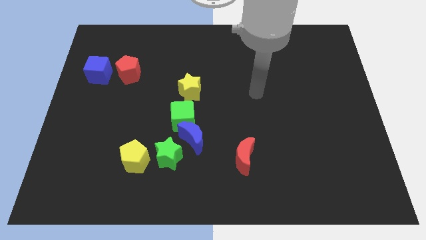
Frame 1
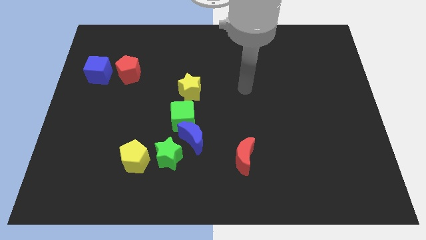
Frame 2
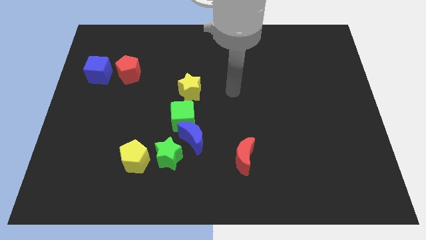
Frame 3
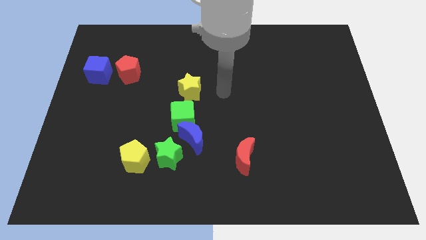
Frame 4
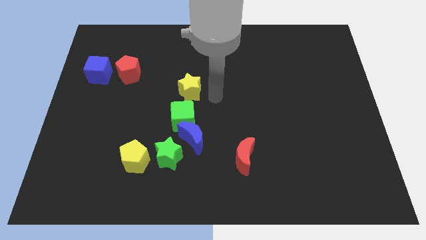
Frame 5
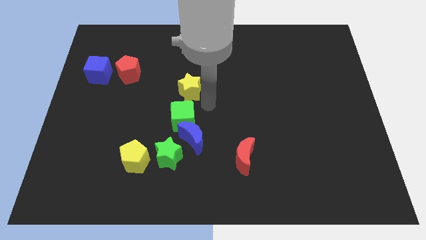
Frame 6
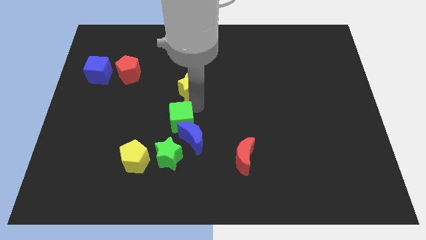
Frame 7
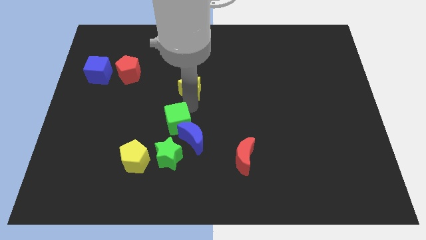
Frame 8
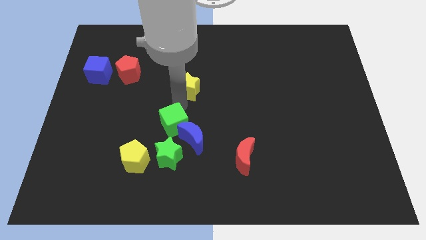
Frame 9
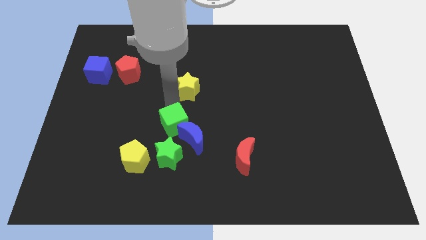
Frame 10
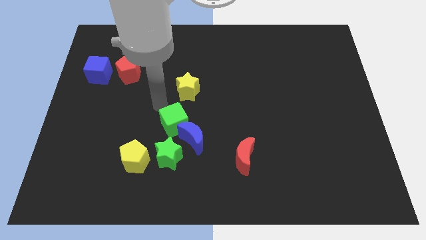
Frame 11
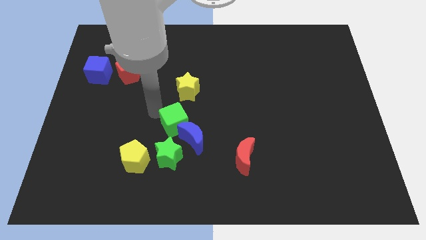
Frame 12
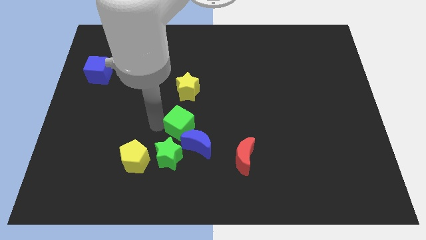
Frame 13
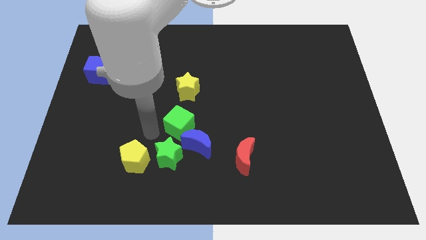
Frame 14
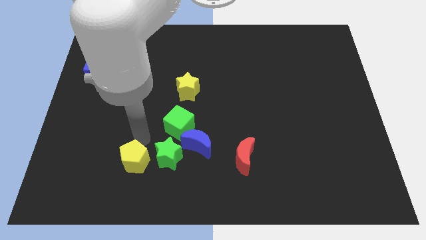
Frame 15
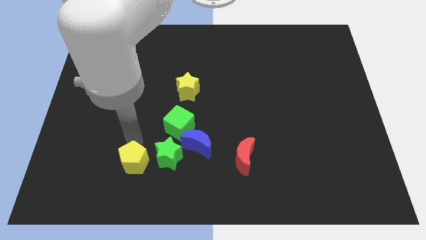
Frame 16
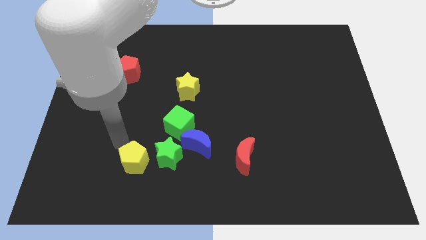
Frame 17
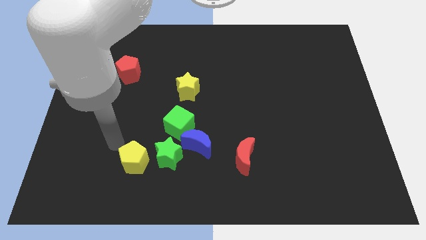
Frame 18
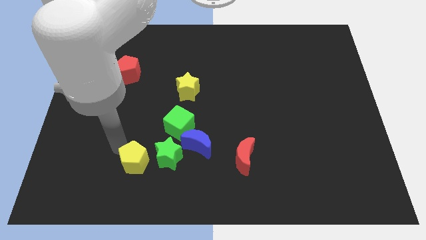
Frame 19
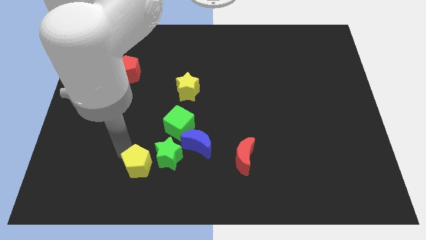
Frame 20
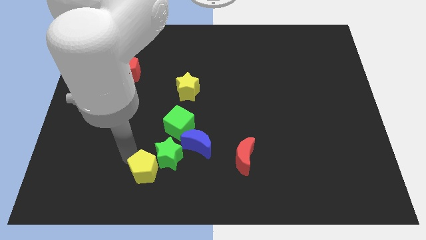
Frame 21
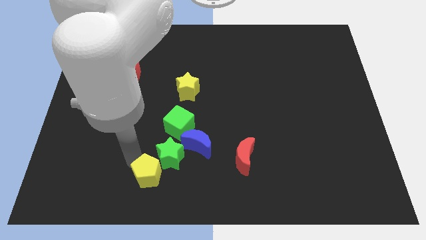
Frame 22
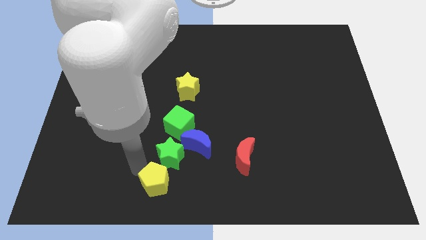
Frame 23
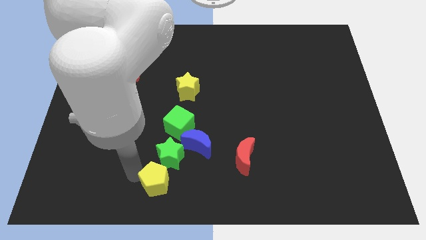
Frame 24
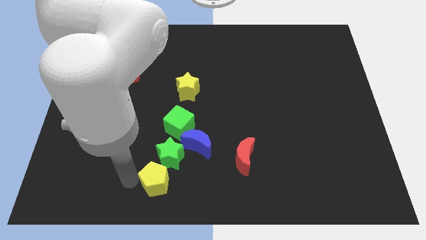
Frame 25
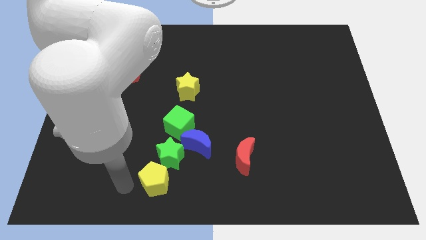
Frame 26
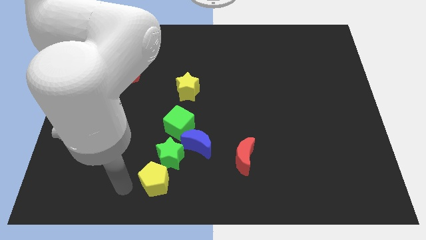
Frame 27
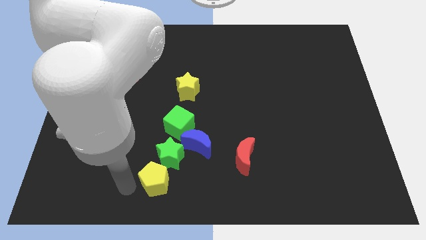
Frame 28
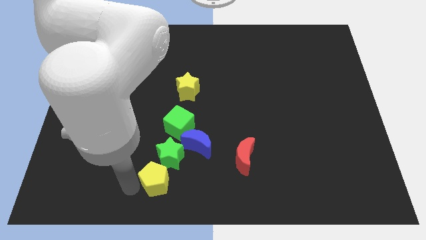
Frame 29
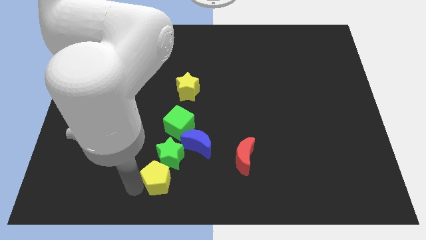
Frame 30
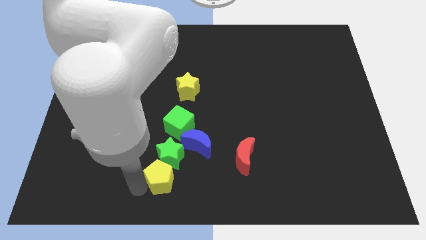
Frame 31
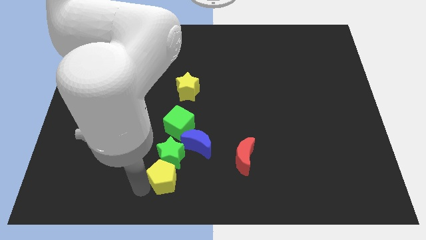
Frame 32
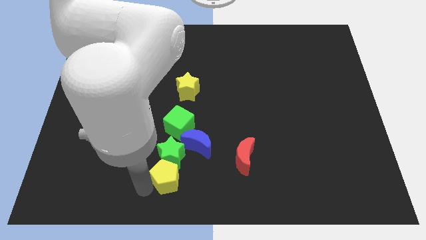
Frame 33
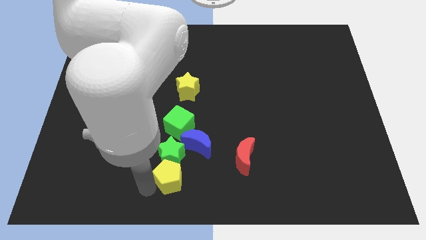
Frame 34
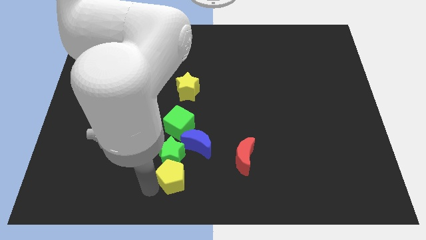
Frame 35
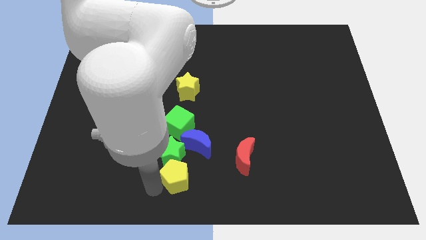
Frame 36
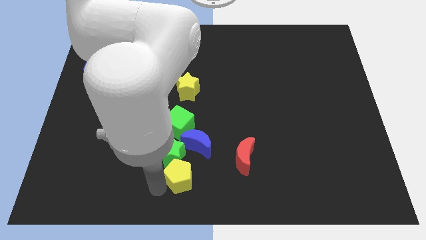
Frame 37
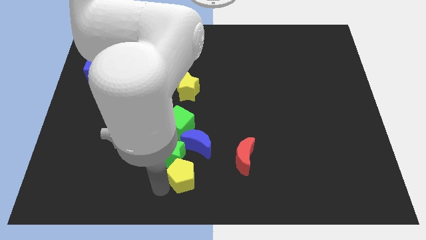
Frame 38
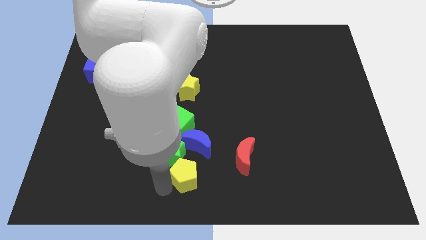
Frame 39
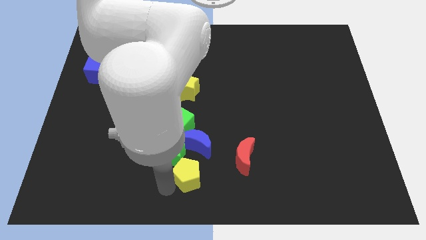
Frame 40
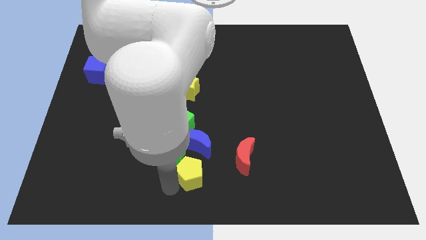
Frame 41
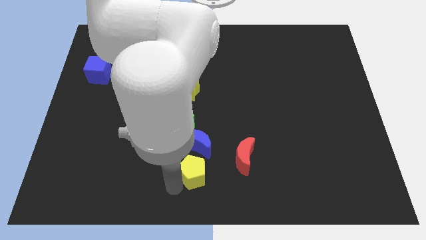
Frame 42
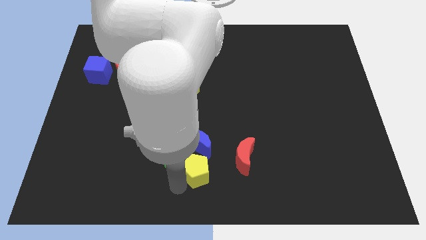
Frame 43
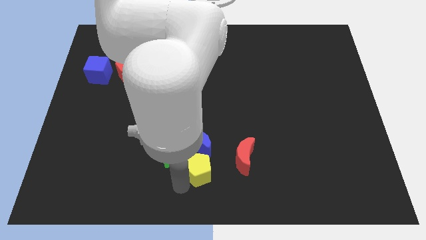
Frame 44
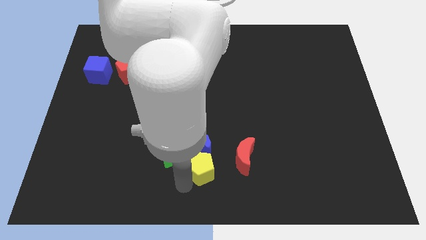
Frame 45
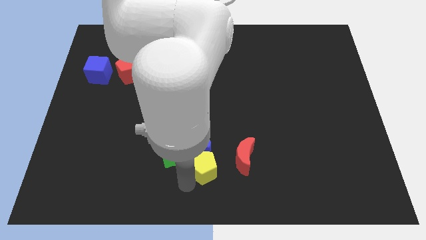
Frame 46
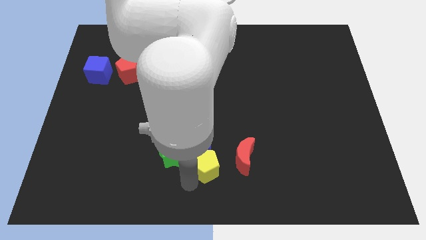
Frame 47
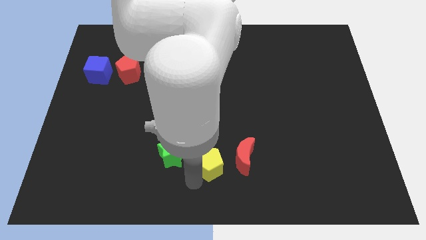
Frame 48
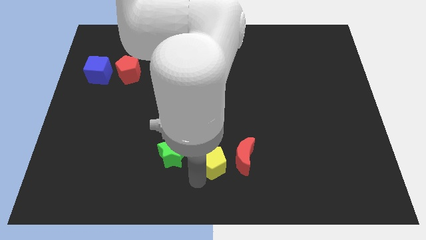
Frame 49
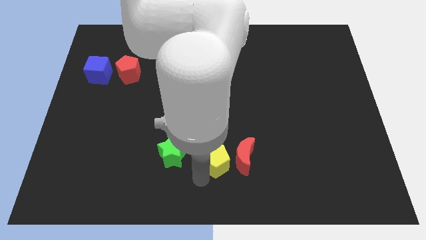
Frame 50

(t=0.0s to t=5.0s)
slide the yellow pentagon to the red moon

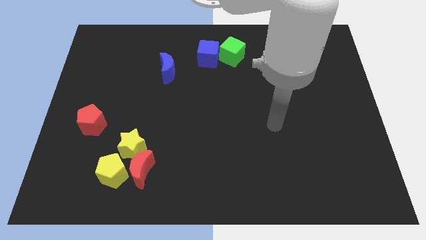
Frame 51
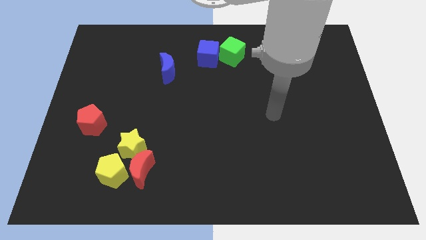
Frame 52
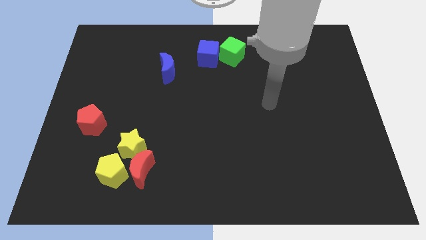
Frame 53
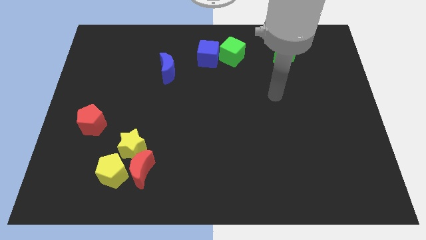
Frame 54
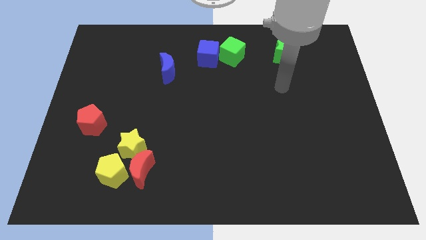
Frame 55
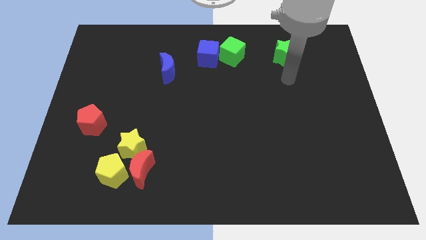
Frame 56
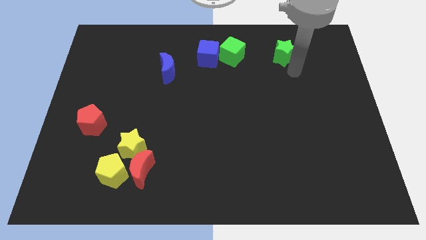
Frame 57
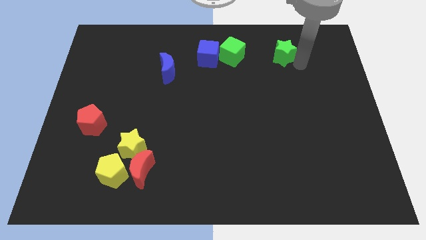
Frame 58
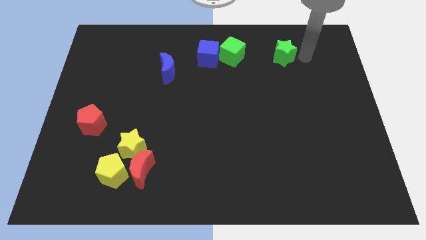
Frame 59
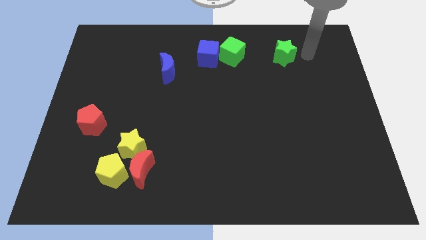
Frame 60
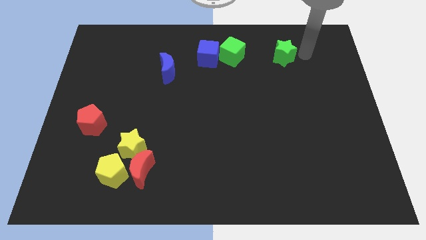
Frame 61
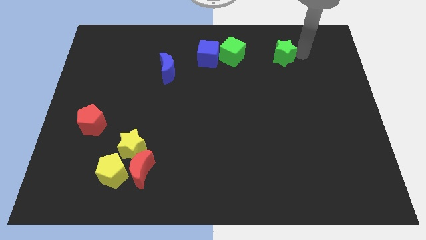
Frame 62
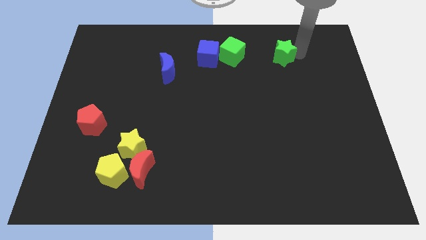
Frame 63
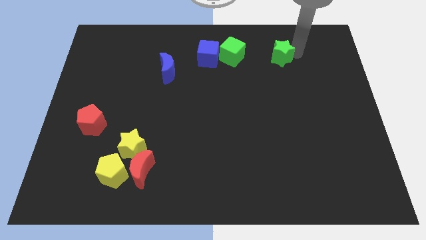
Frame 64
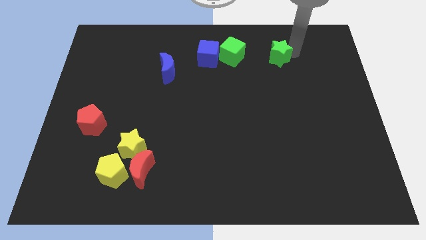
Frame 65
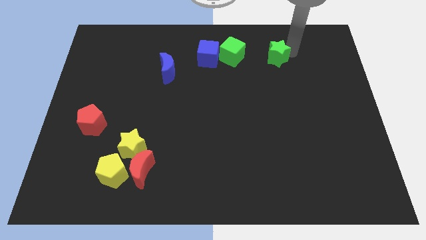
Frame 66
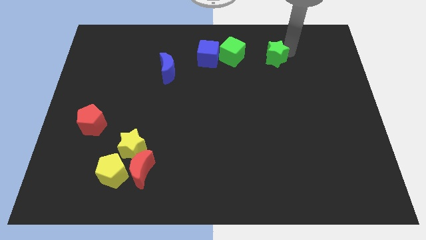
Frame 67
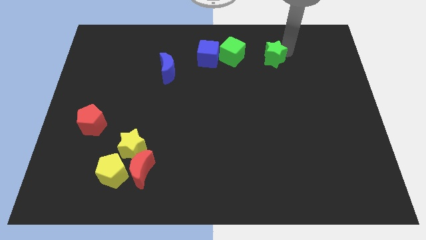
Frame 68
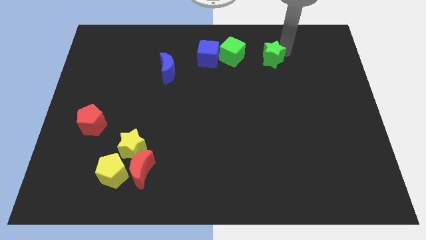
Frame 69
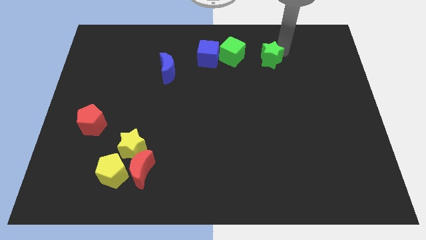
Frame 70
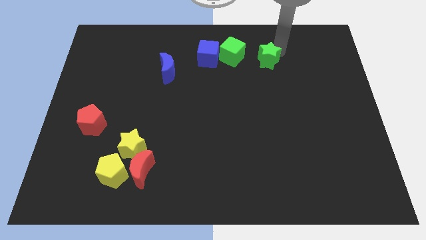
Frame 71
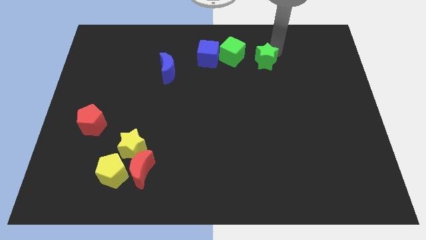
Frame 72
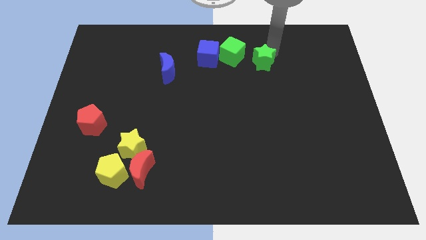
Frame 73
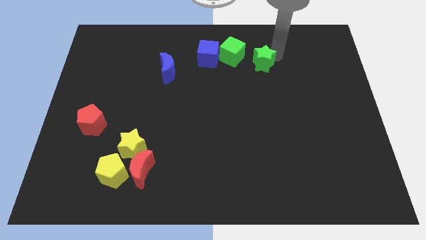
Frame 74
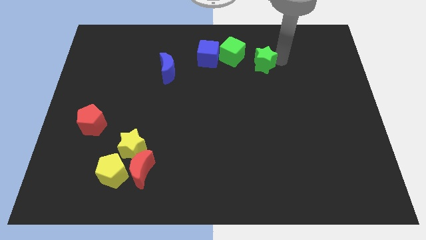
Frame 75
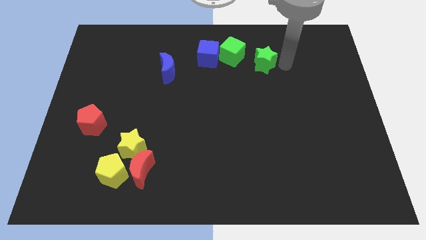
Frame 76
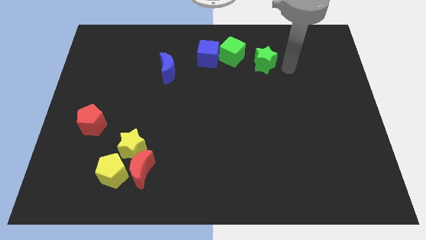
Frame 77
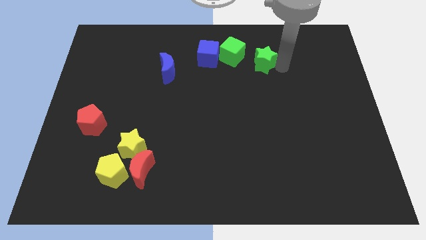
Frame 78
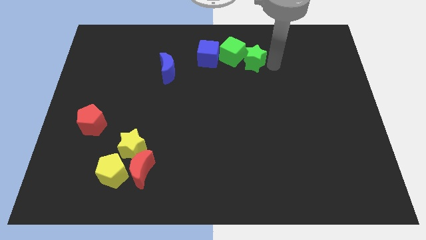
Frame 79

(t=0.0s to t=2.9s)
move the green star close to the green cube
